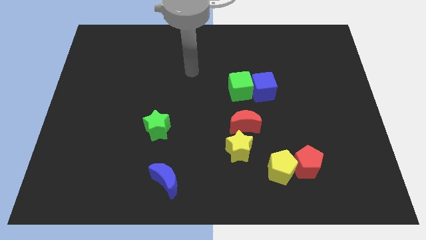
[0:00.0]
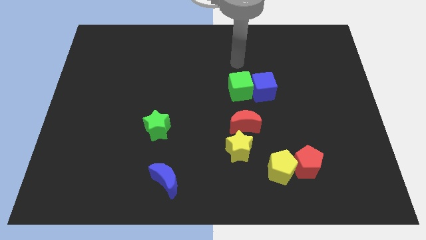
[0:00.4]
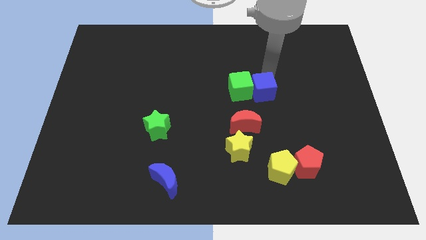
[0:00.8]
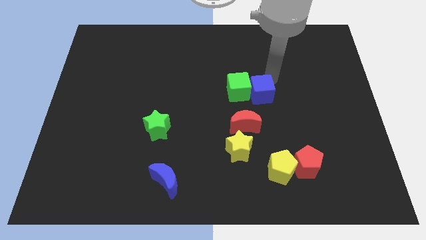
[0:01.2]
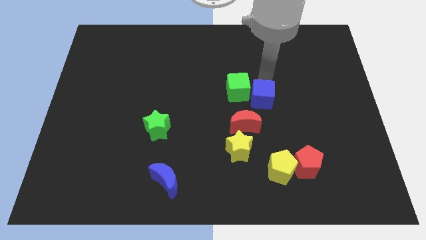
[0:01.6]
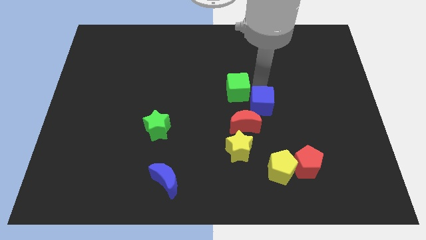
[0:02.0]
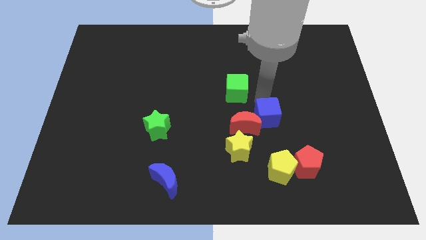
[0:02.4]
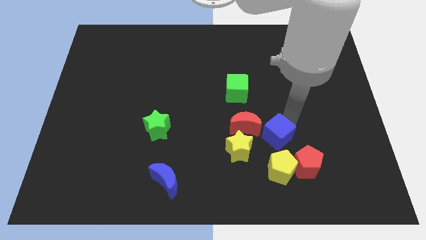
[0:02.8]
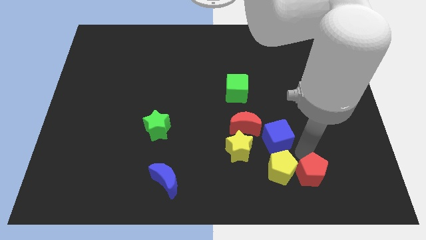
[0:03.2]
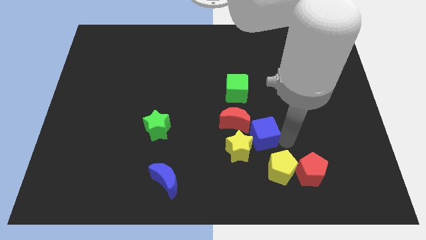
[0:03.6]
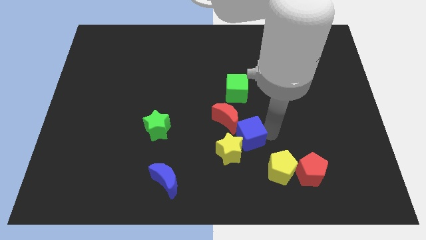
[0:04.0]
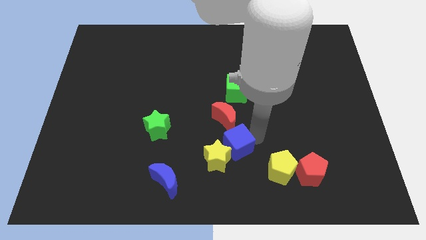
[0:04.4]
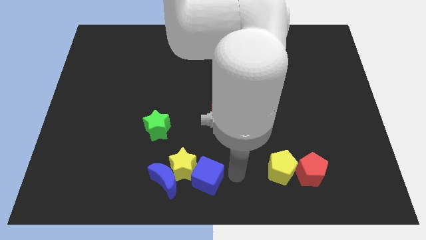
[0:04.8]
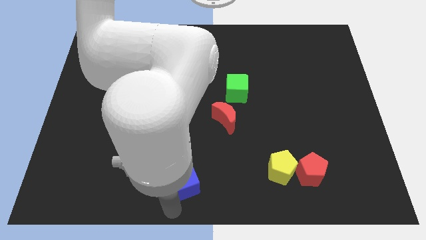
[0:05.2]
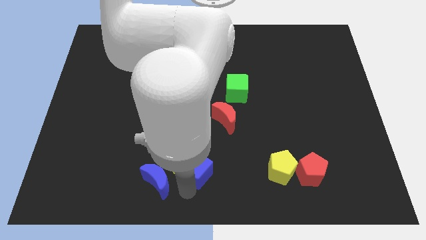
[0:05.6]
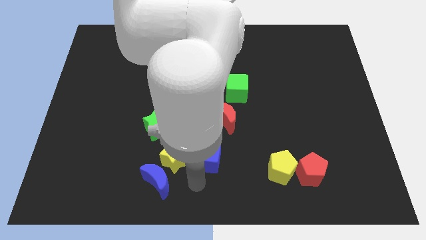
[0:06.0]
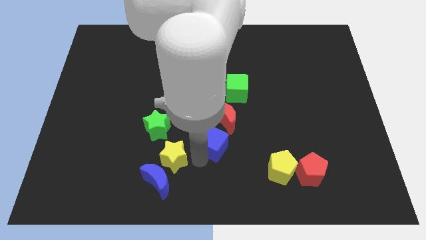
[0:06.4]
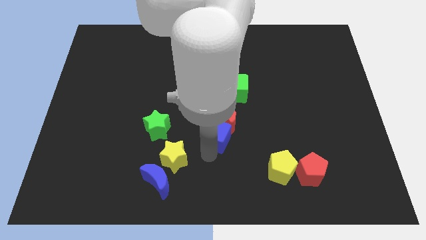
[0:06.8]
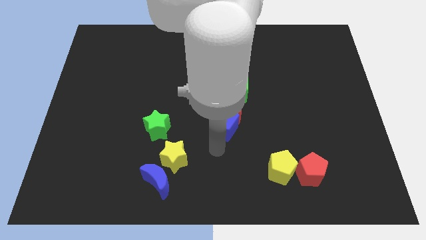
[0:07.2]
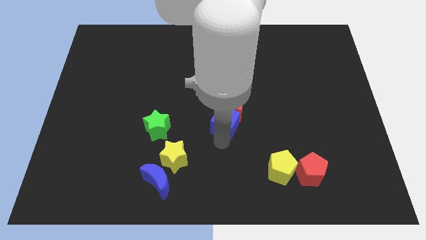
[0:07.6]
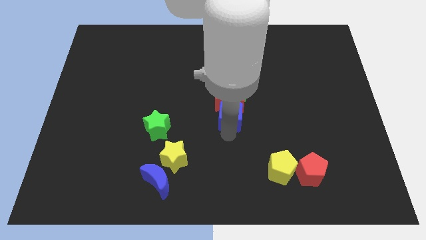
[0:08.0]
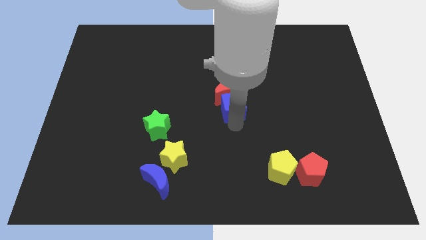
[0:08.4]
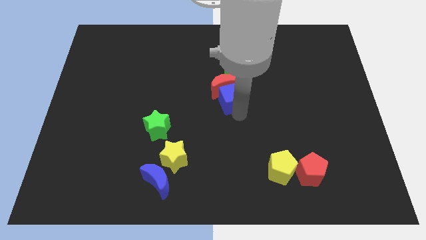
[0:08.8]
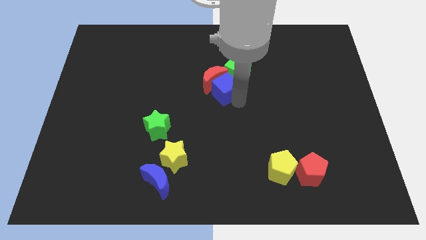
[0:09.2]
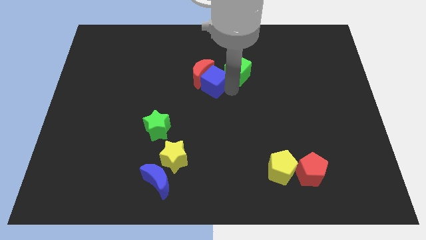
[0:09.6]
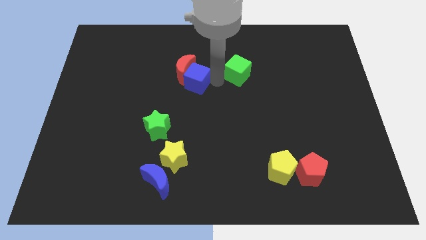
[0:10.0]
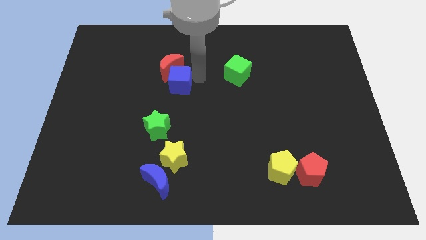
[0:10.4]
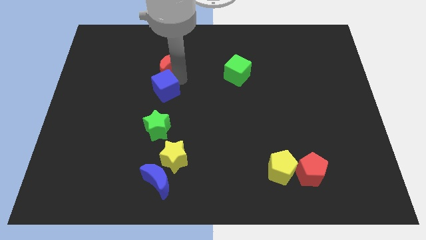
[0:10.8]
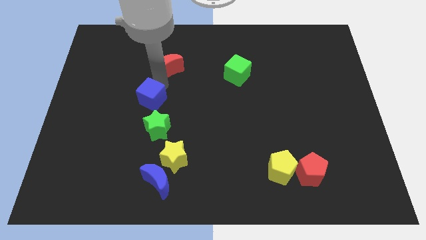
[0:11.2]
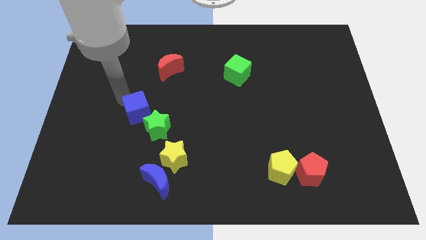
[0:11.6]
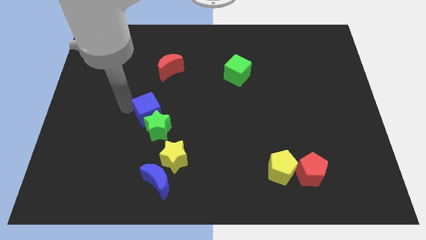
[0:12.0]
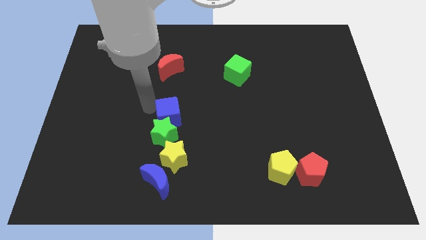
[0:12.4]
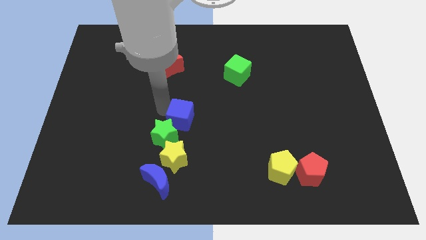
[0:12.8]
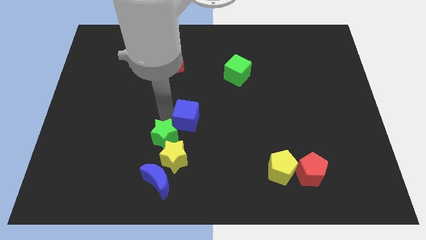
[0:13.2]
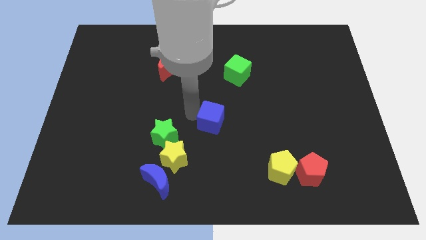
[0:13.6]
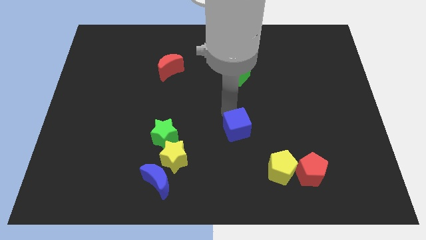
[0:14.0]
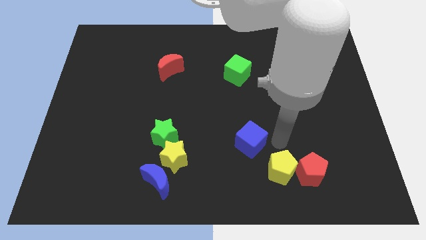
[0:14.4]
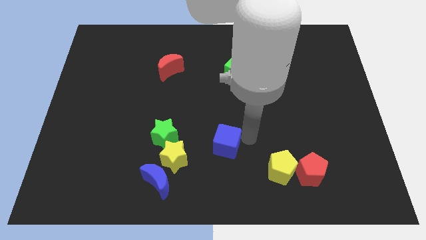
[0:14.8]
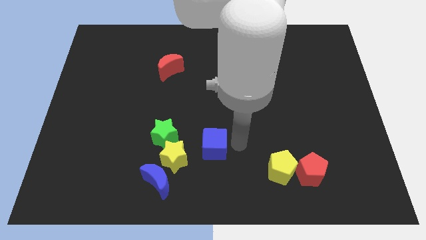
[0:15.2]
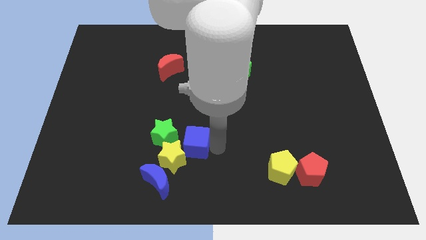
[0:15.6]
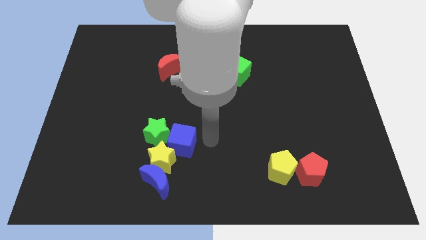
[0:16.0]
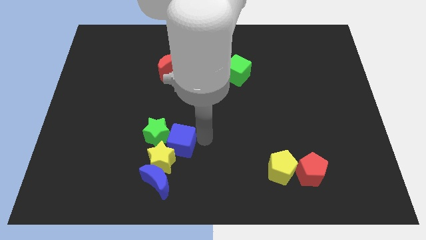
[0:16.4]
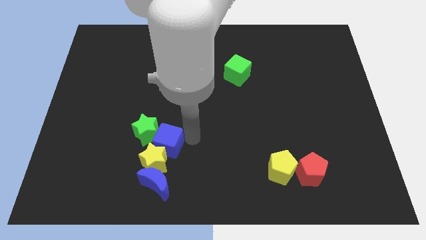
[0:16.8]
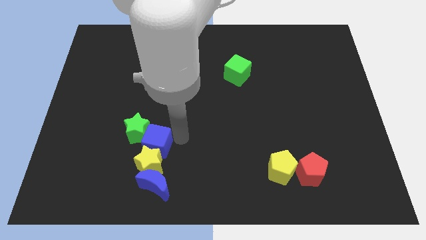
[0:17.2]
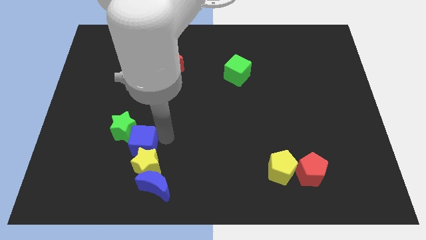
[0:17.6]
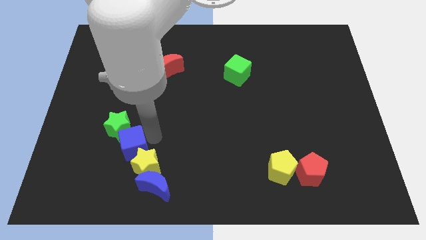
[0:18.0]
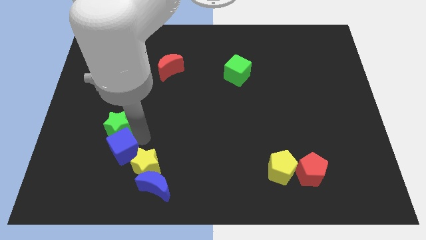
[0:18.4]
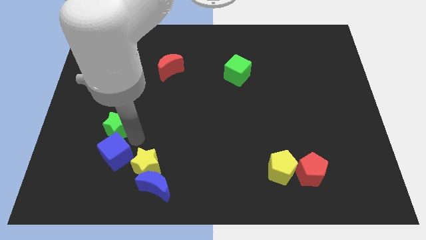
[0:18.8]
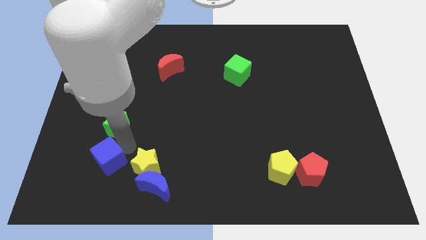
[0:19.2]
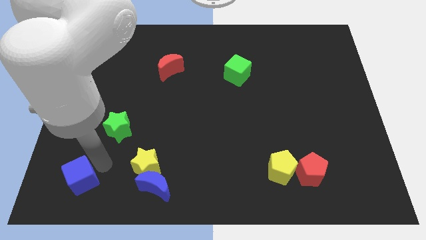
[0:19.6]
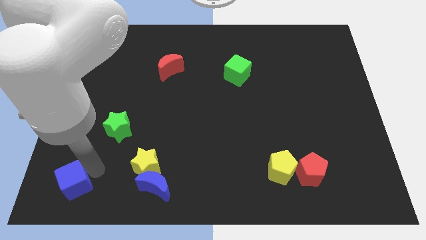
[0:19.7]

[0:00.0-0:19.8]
put the blue cube to the bottom left corner

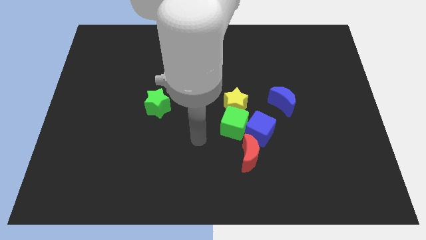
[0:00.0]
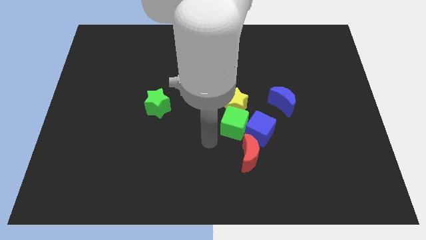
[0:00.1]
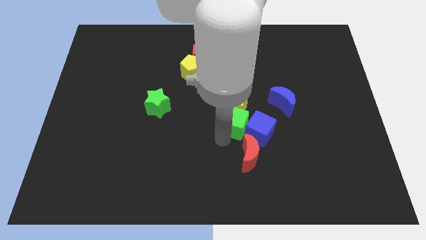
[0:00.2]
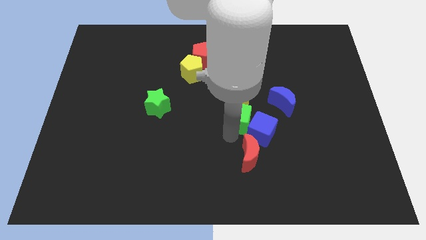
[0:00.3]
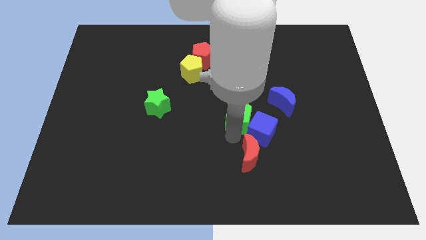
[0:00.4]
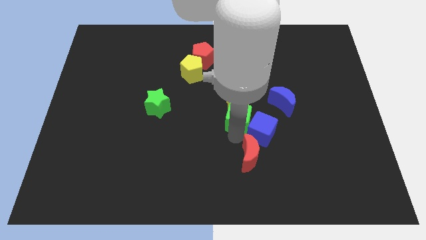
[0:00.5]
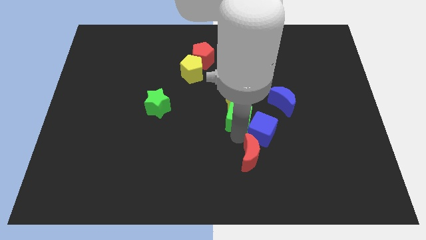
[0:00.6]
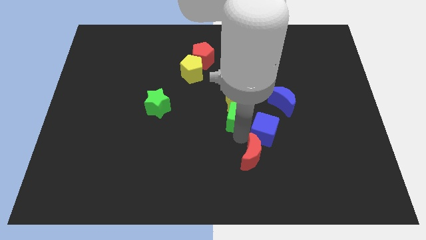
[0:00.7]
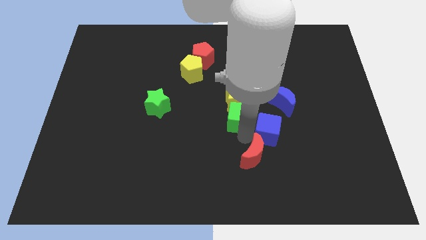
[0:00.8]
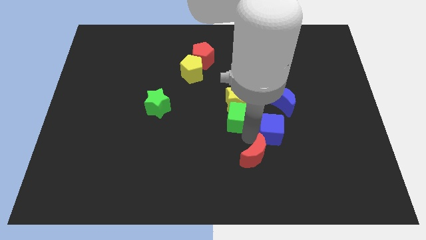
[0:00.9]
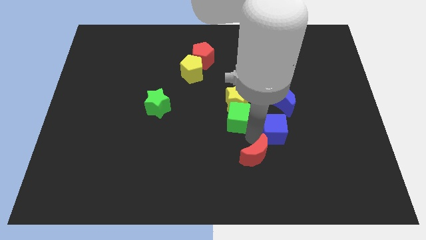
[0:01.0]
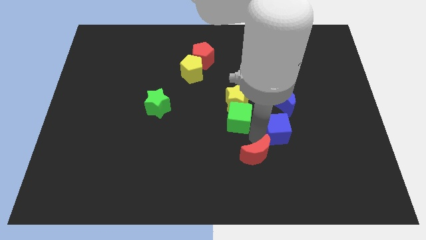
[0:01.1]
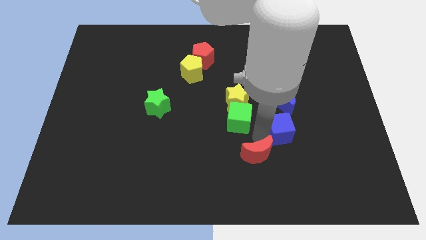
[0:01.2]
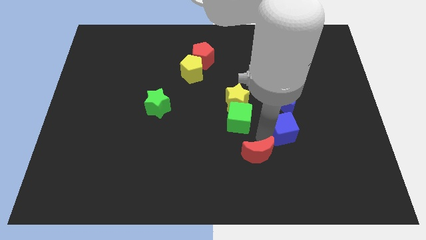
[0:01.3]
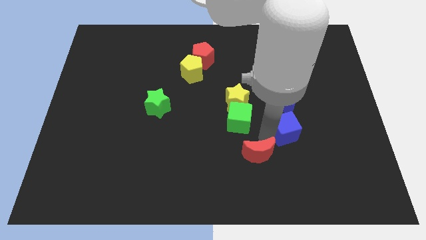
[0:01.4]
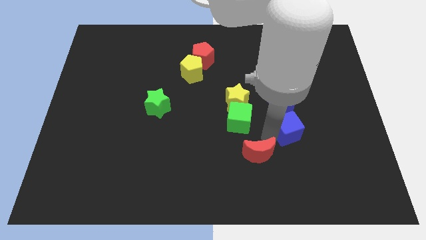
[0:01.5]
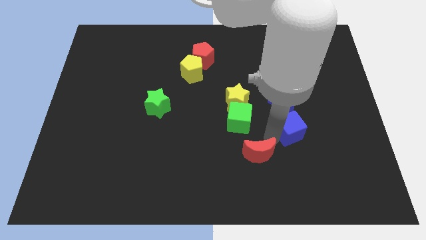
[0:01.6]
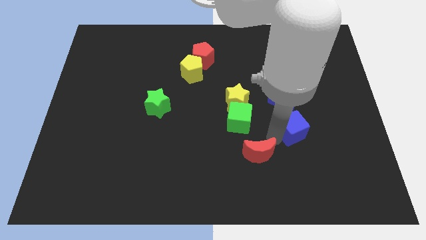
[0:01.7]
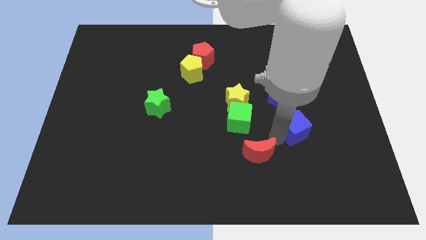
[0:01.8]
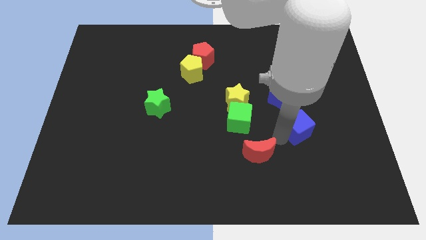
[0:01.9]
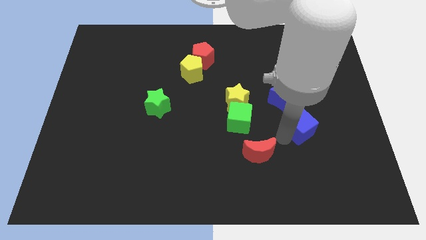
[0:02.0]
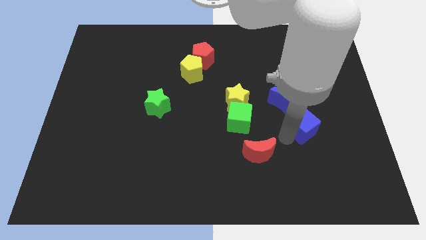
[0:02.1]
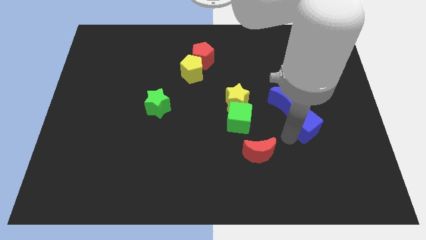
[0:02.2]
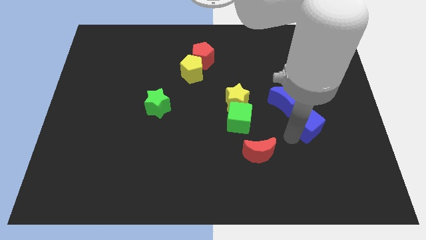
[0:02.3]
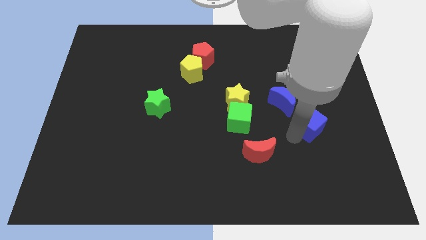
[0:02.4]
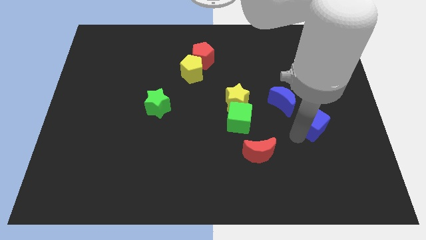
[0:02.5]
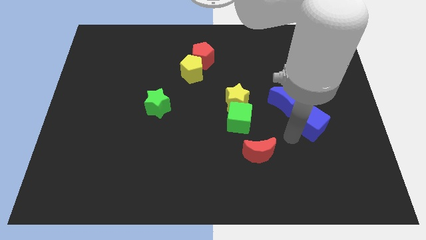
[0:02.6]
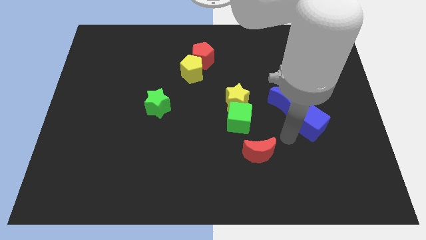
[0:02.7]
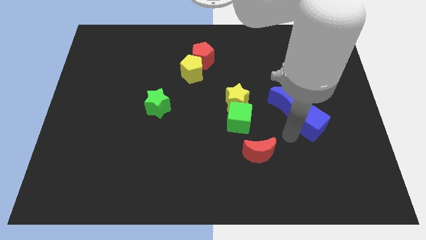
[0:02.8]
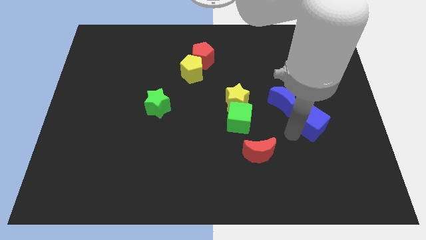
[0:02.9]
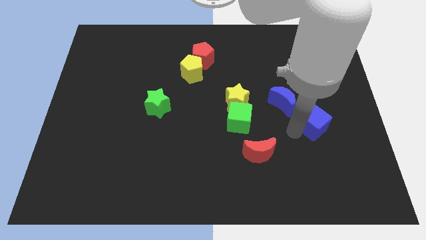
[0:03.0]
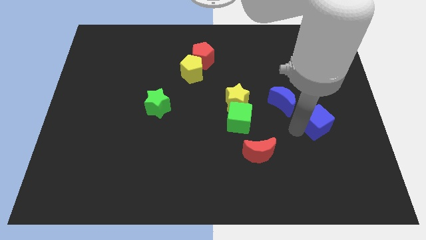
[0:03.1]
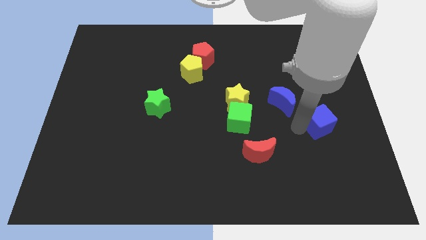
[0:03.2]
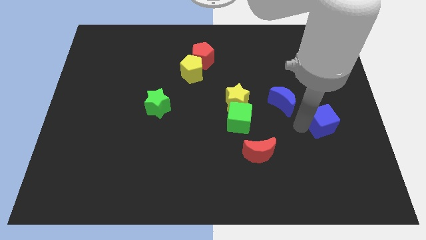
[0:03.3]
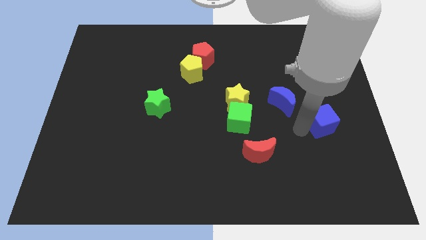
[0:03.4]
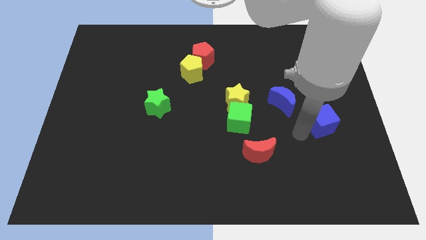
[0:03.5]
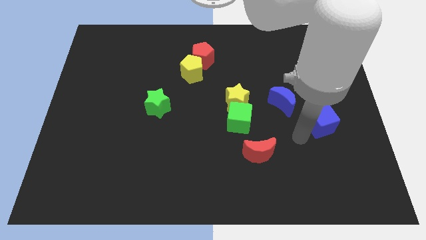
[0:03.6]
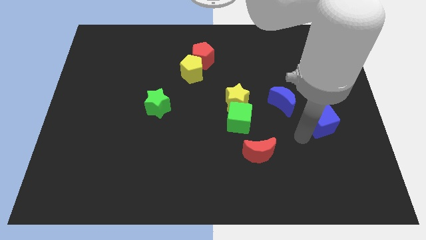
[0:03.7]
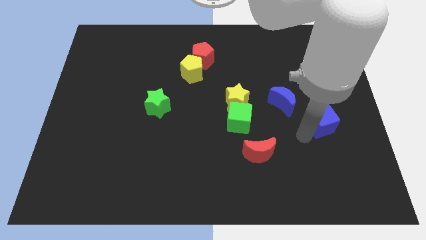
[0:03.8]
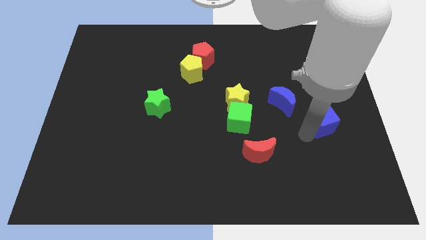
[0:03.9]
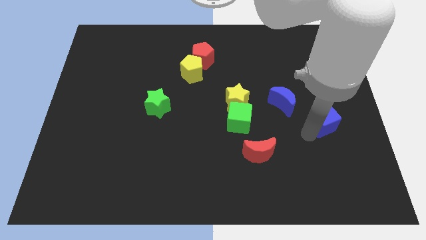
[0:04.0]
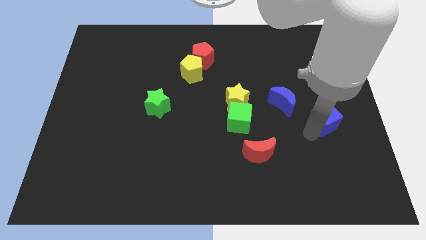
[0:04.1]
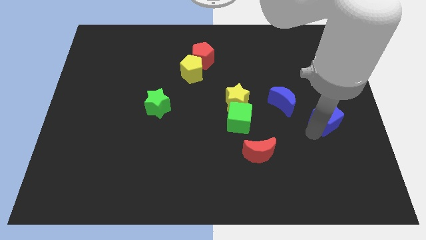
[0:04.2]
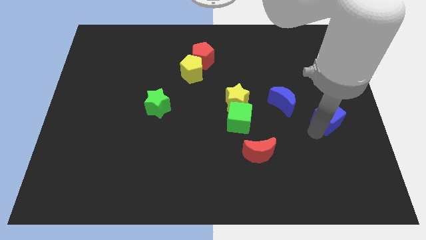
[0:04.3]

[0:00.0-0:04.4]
push the blue cube to the center right
